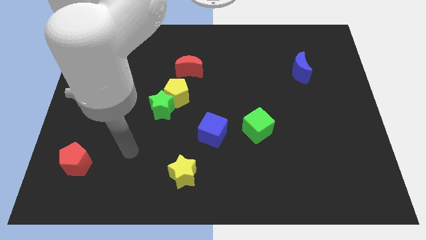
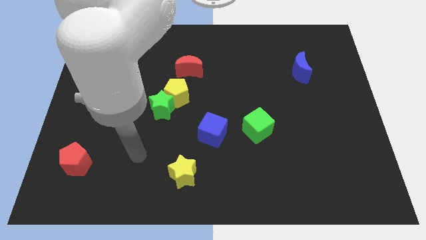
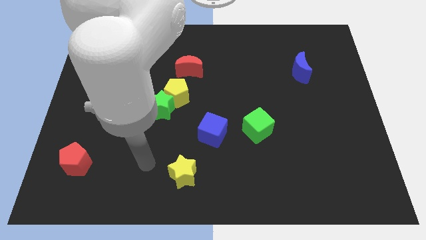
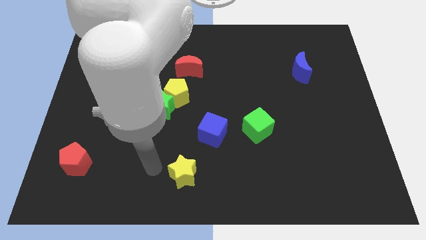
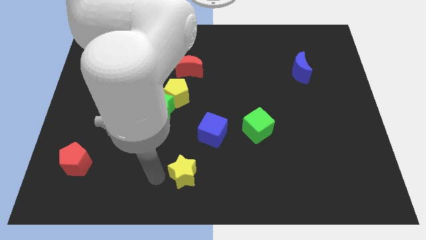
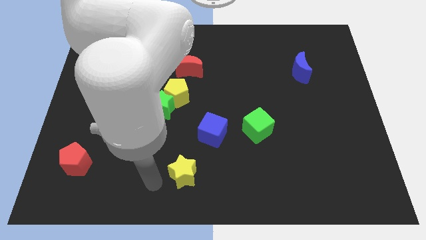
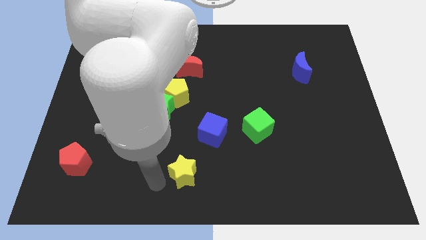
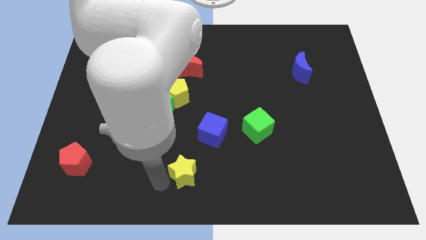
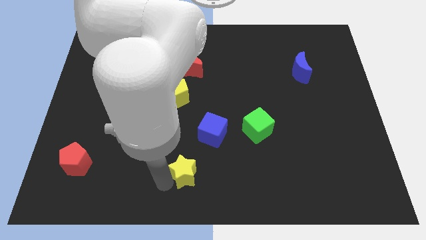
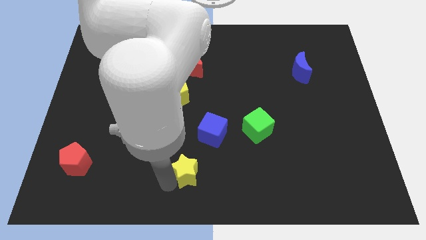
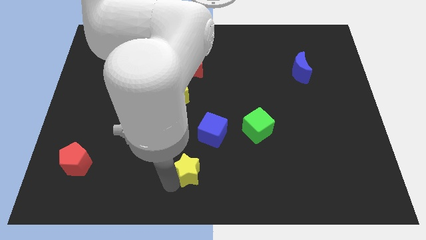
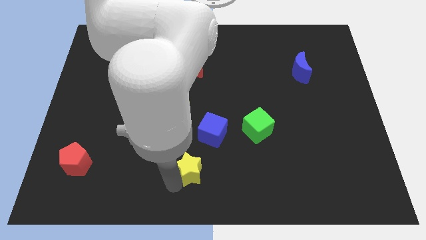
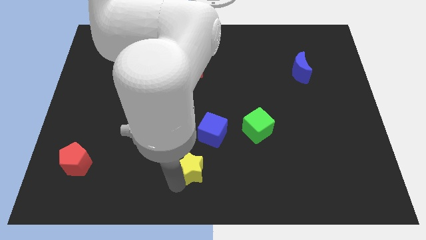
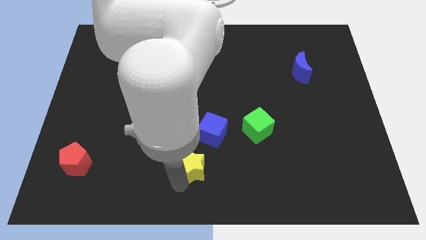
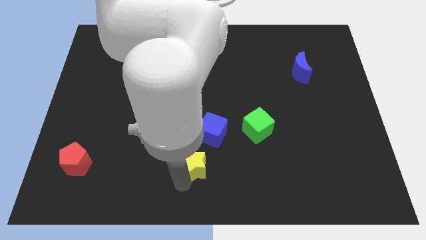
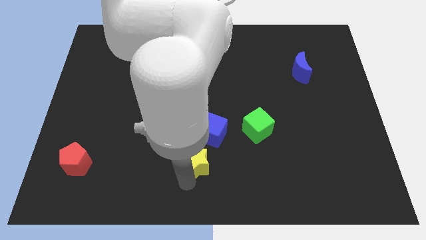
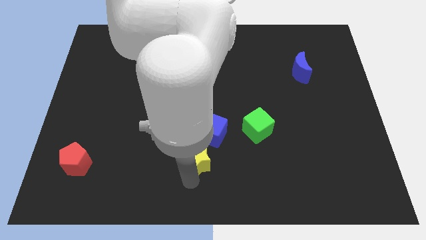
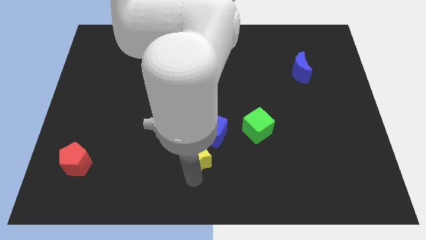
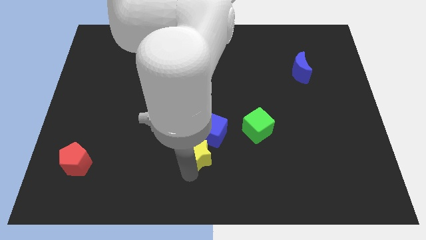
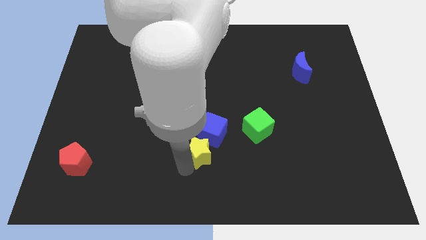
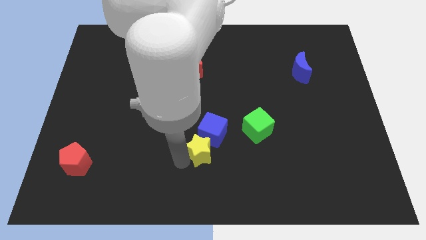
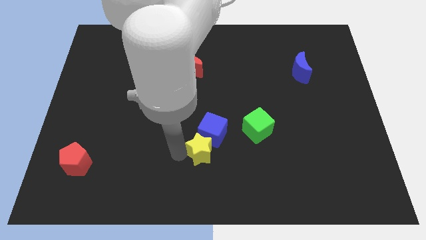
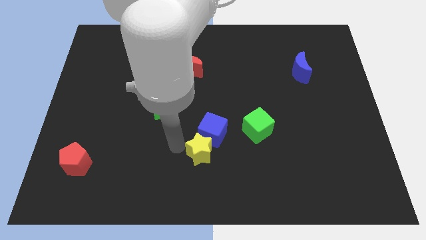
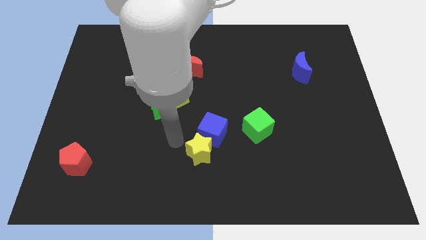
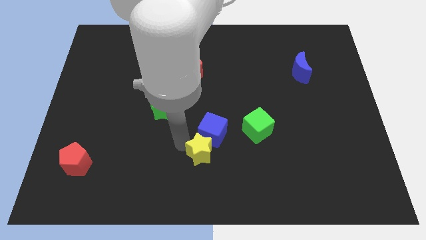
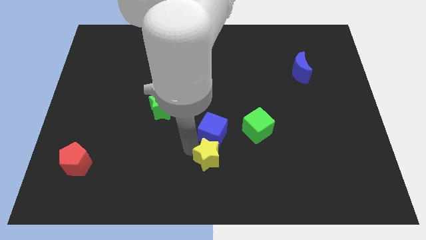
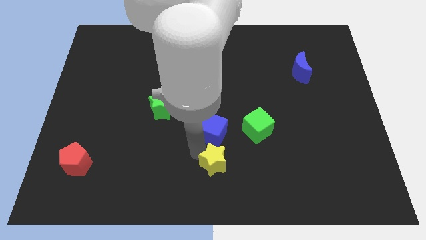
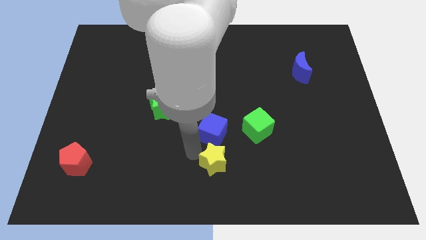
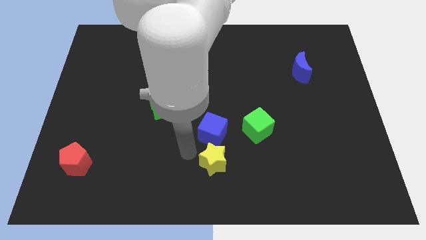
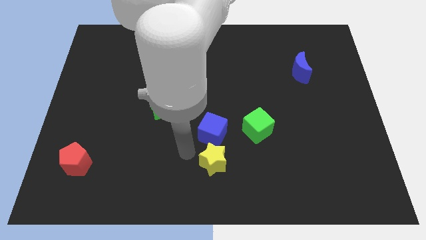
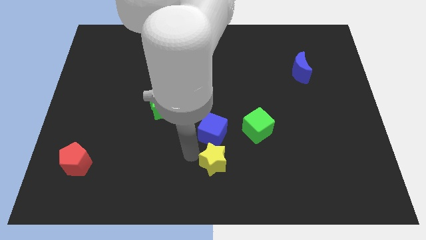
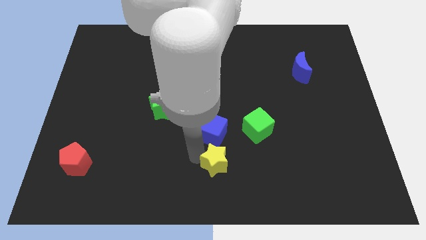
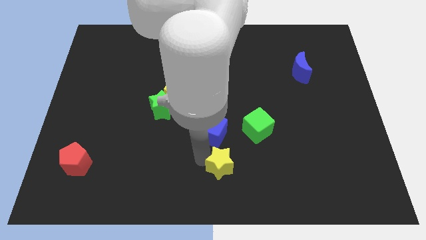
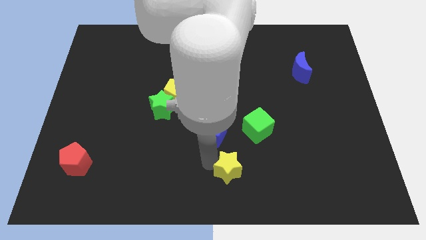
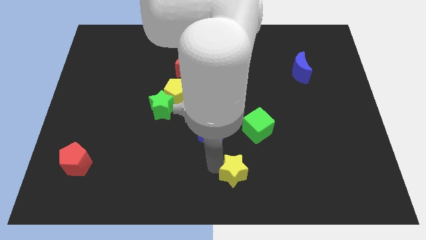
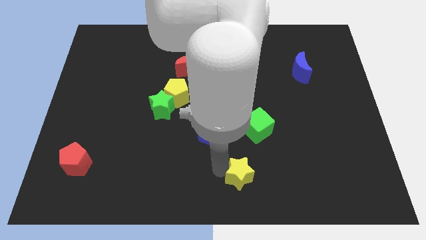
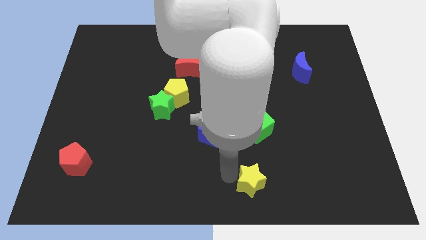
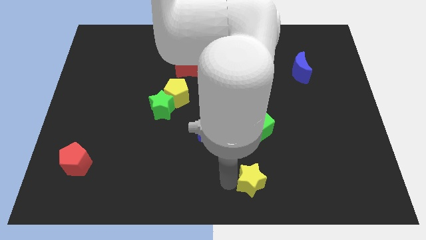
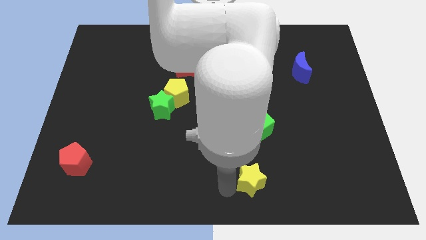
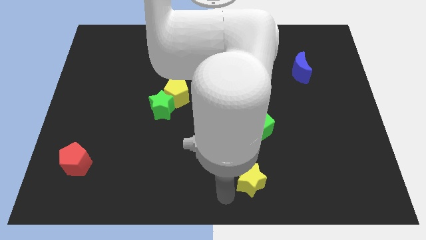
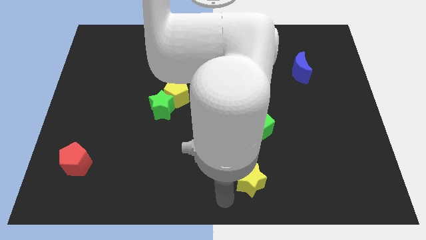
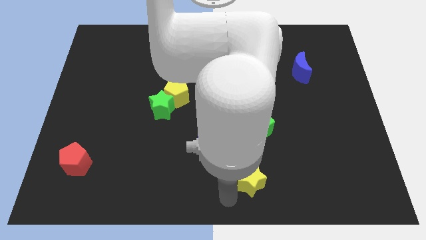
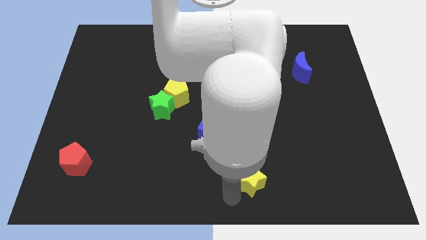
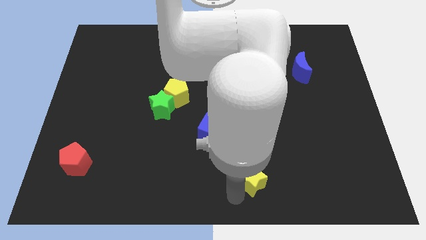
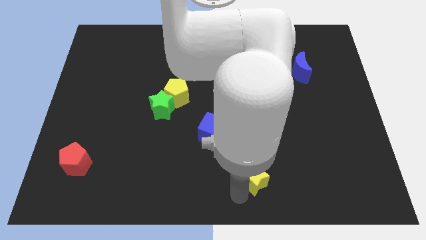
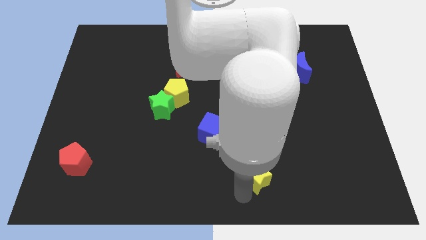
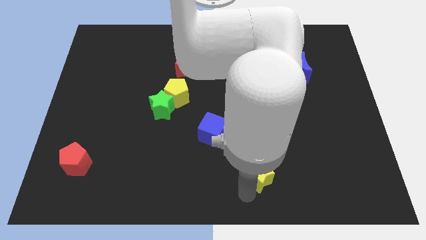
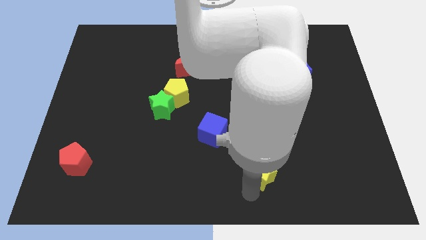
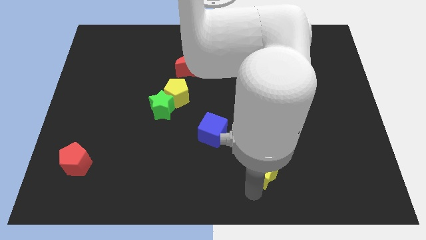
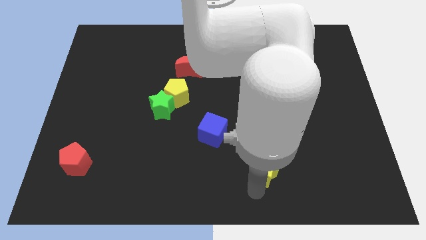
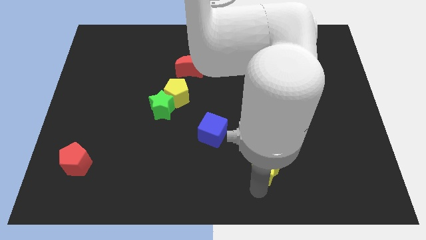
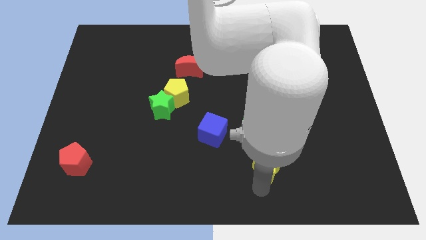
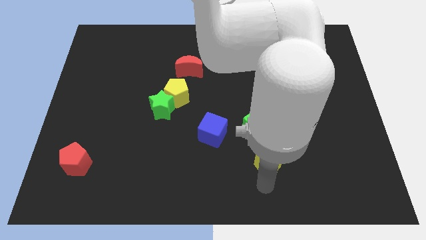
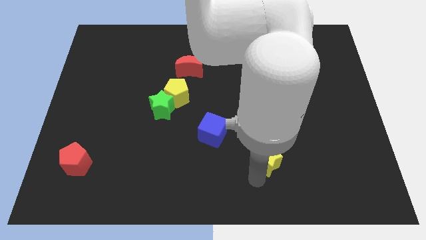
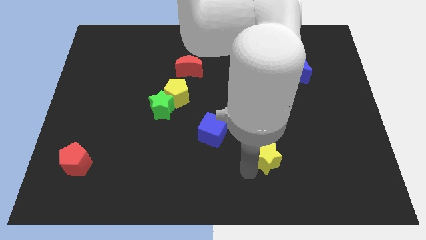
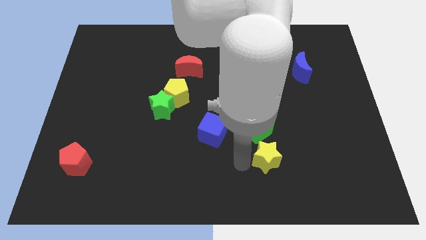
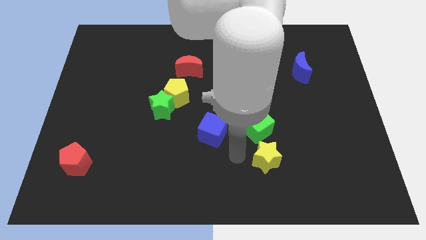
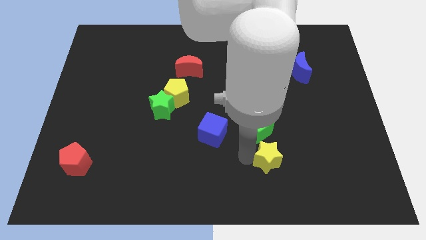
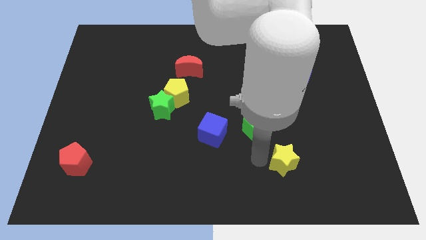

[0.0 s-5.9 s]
push the yellow star to the right

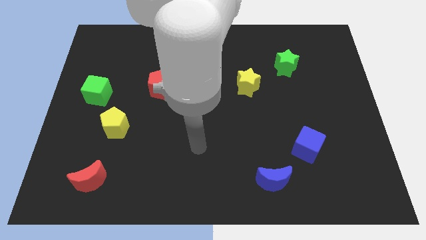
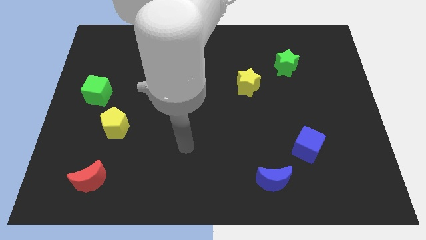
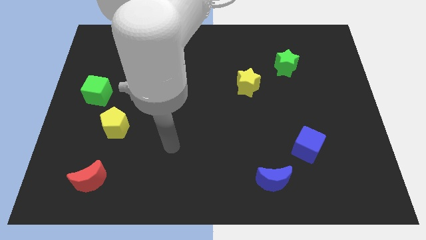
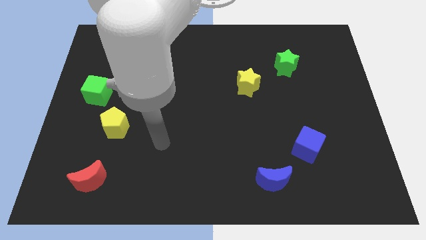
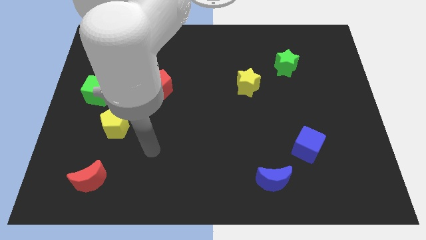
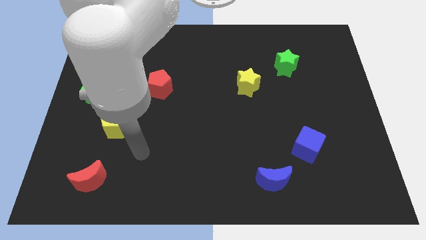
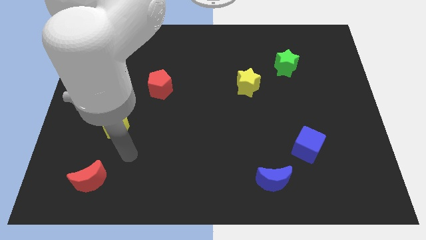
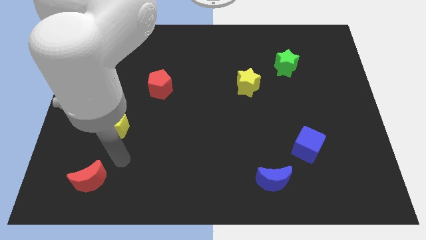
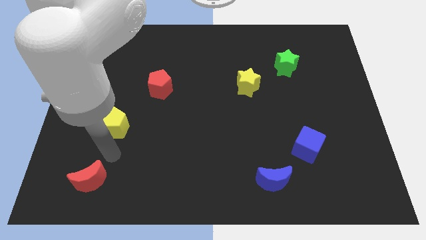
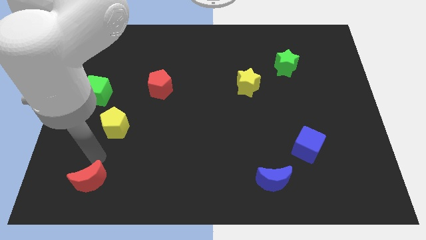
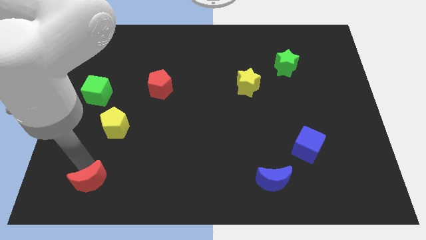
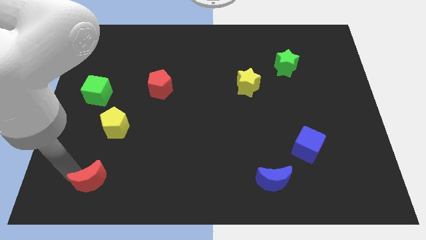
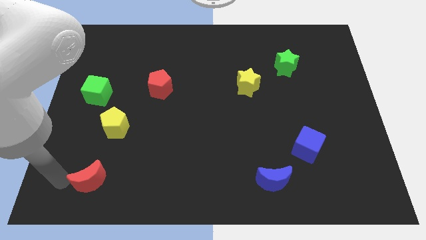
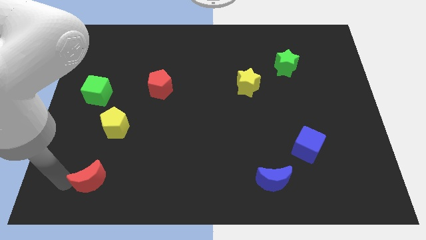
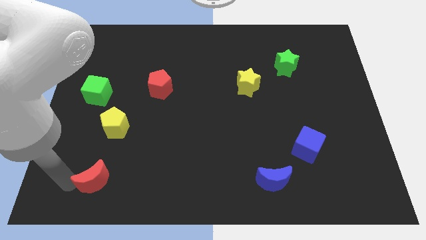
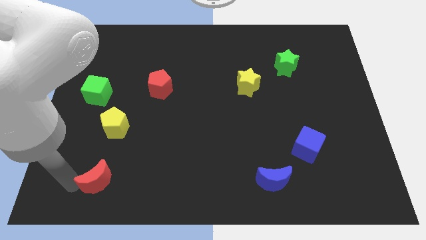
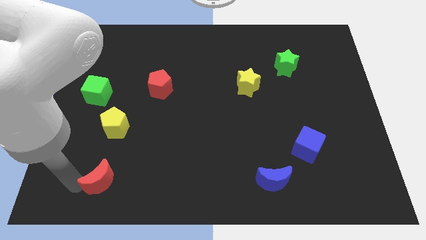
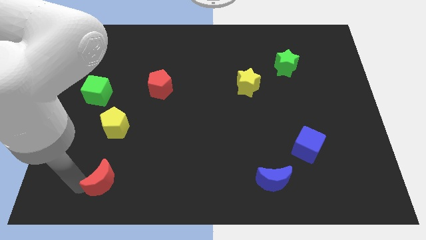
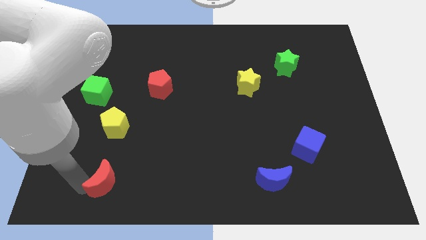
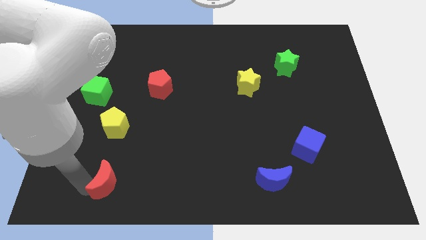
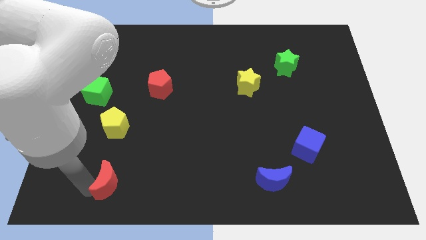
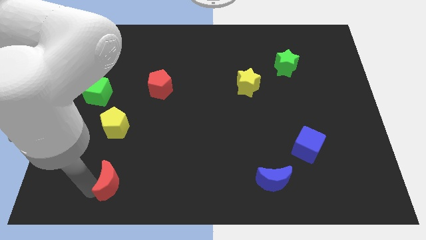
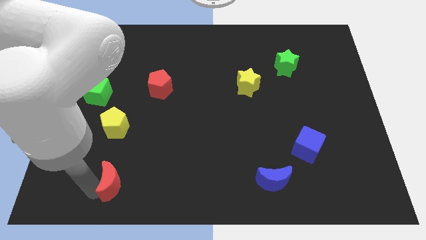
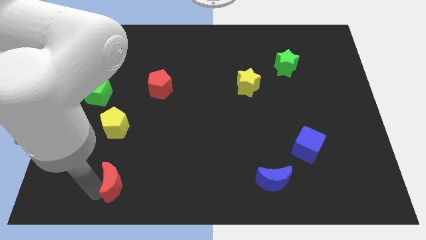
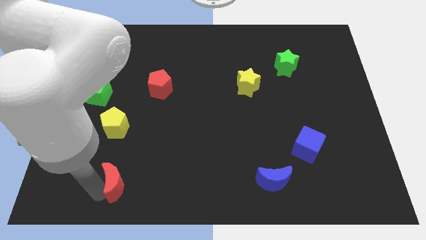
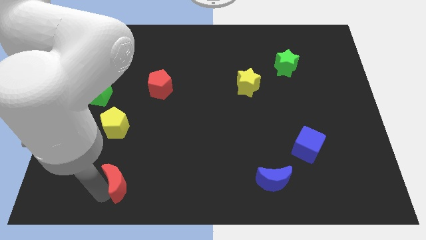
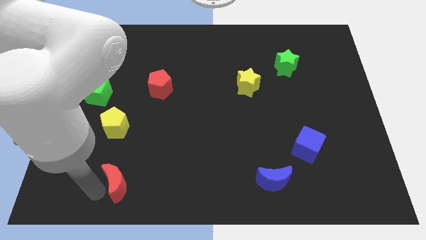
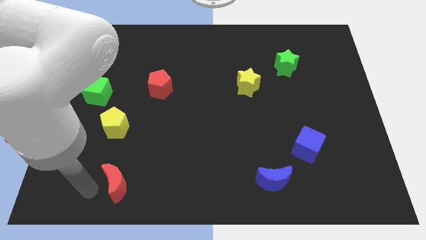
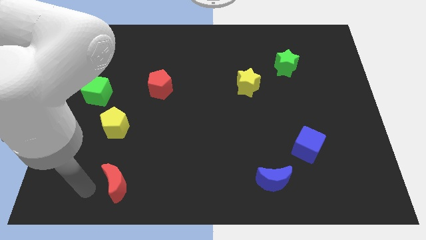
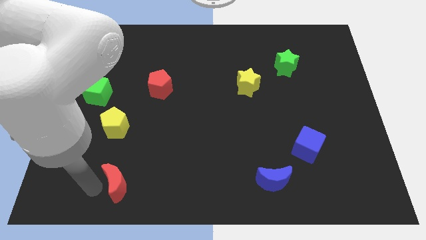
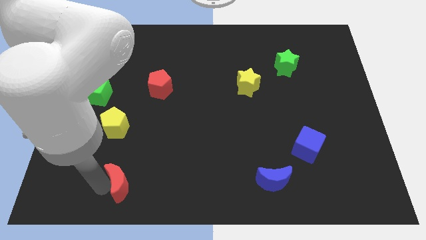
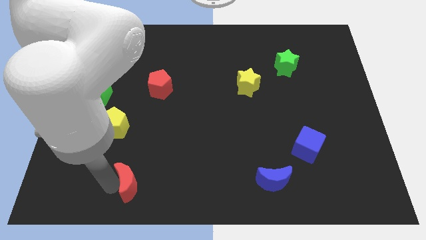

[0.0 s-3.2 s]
move the red moon somewhat to the right
